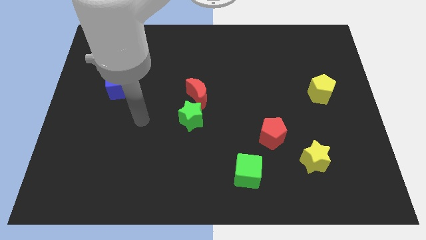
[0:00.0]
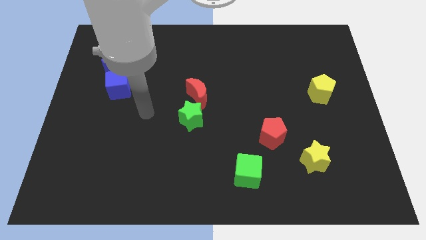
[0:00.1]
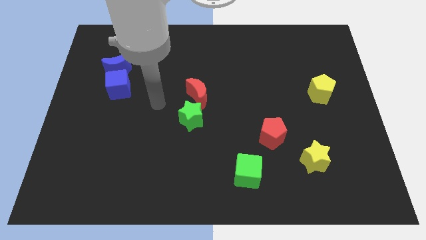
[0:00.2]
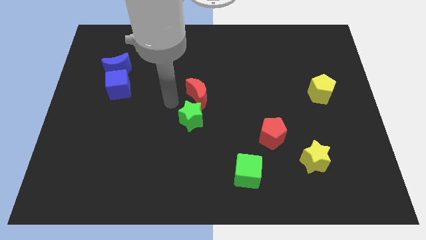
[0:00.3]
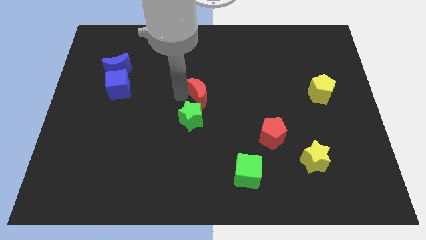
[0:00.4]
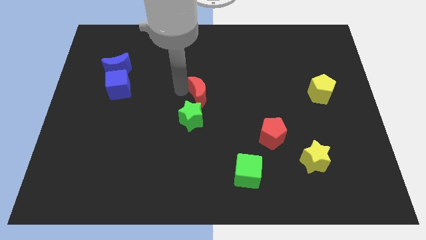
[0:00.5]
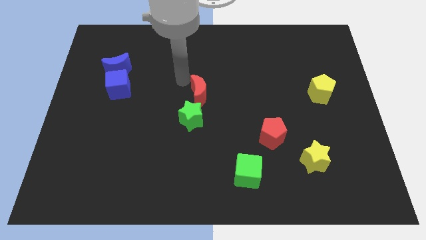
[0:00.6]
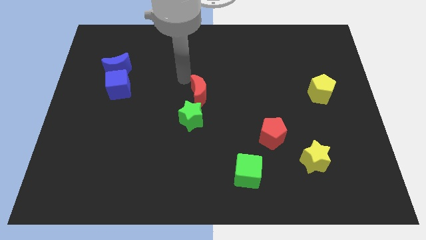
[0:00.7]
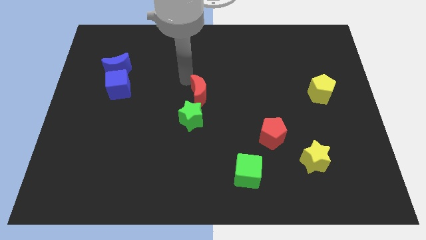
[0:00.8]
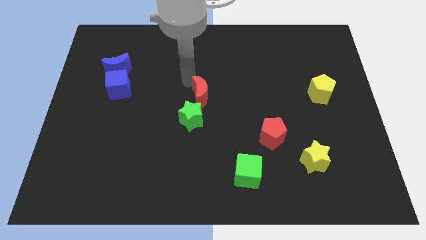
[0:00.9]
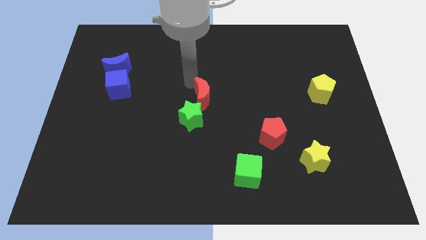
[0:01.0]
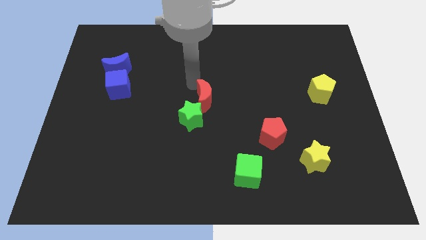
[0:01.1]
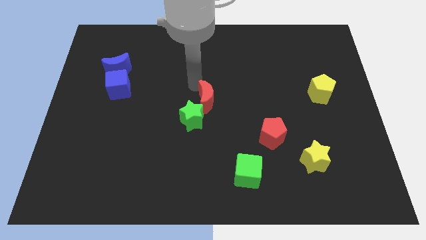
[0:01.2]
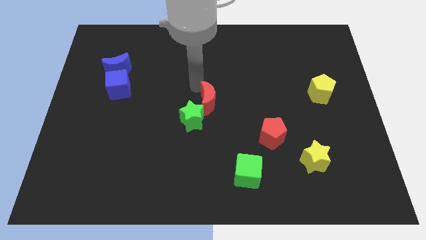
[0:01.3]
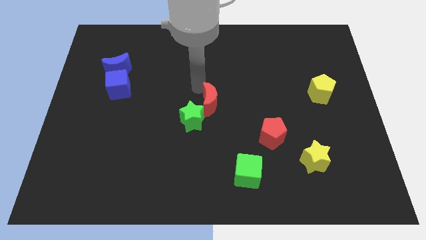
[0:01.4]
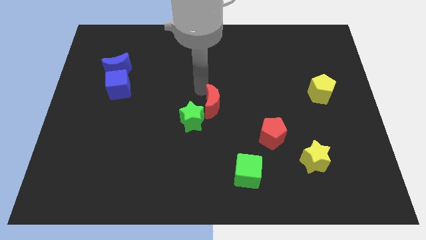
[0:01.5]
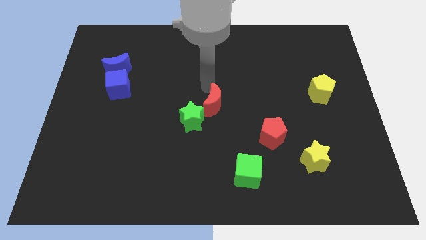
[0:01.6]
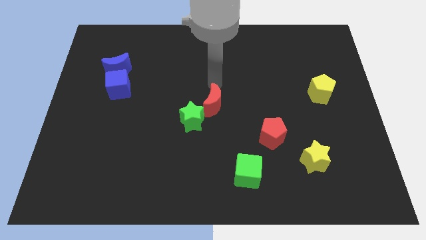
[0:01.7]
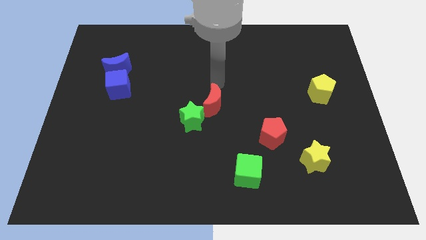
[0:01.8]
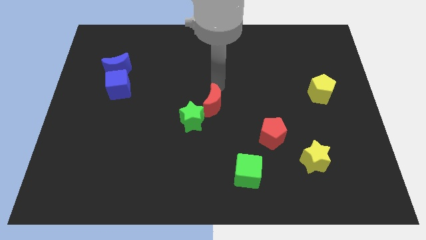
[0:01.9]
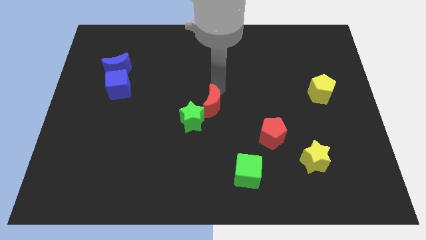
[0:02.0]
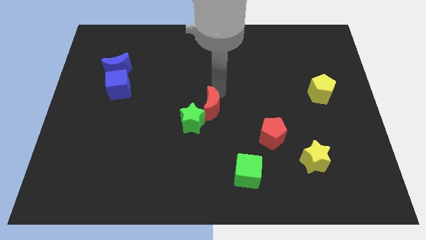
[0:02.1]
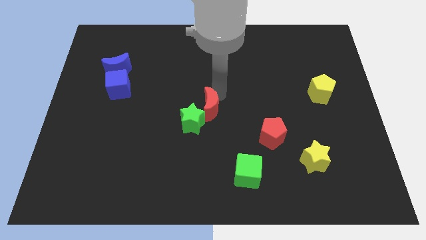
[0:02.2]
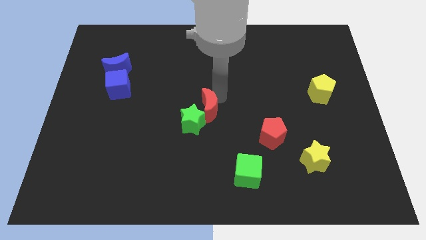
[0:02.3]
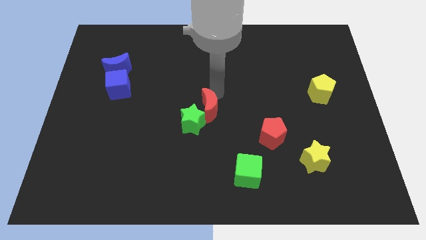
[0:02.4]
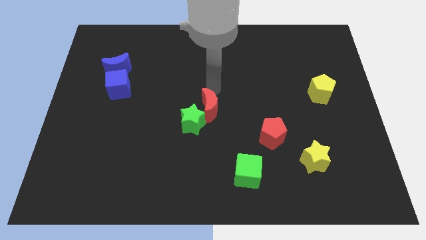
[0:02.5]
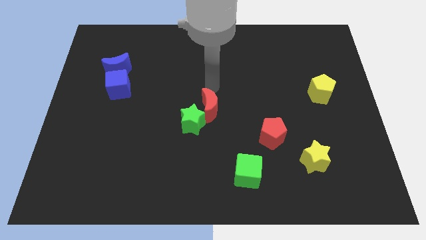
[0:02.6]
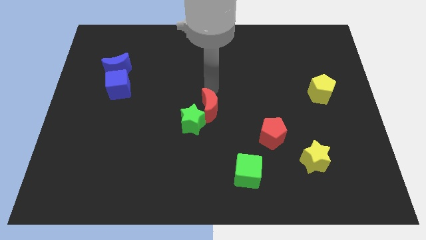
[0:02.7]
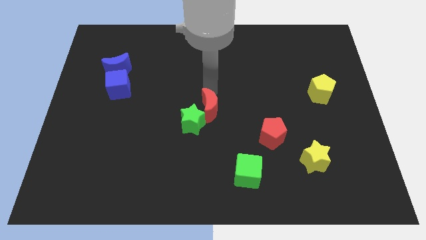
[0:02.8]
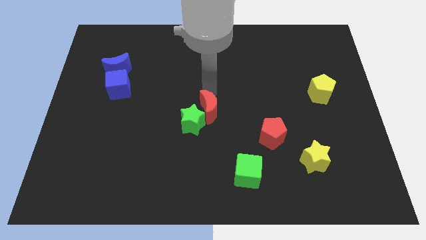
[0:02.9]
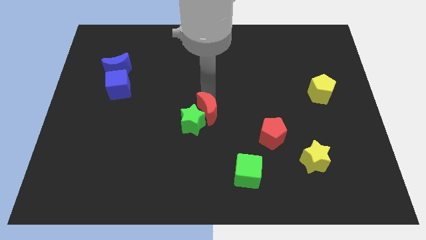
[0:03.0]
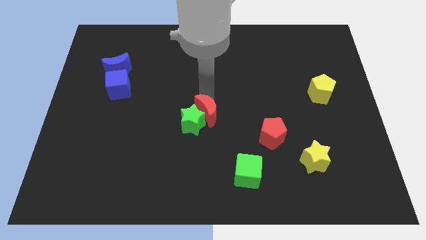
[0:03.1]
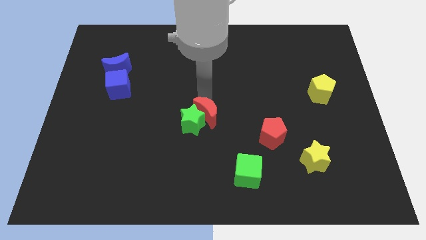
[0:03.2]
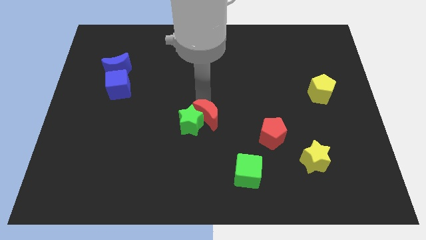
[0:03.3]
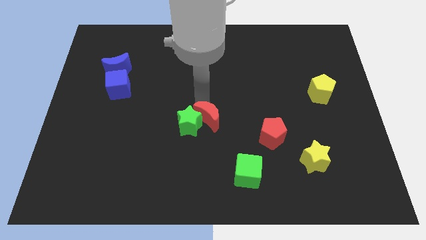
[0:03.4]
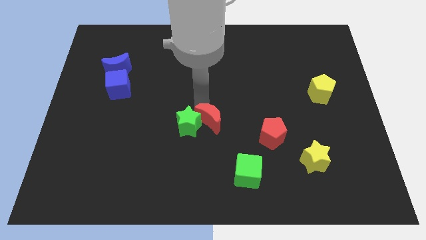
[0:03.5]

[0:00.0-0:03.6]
slightly move the red moon down

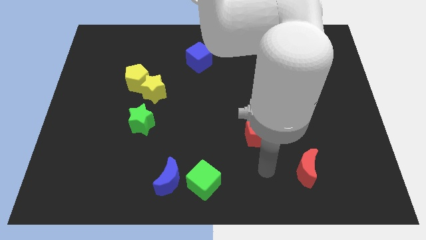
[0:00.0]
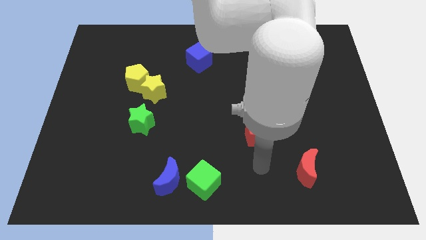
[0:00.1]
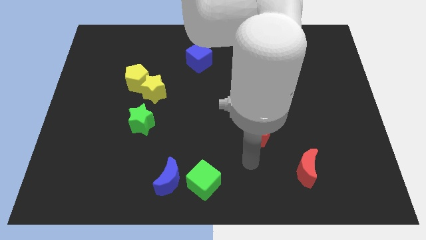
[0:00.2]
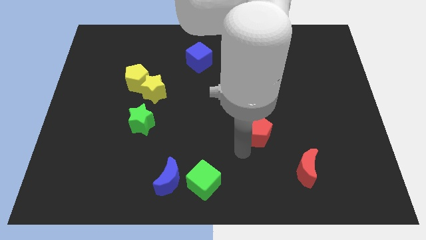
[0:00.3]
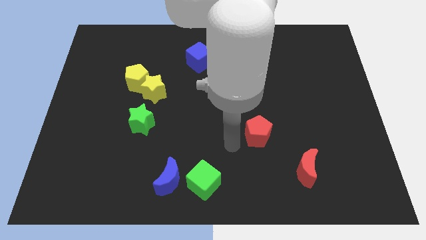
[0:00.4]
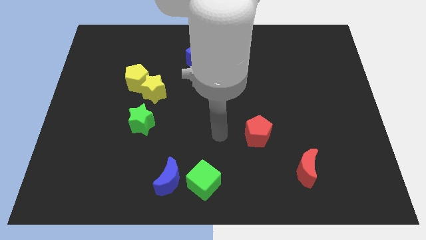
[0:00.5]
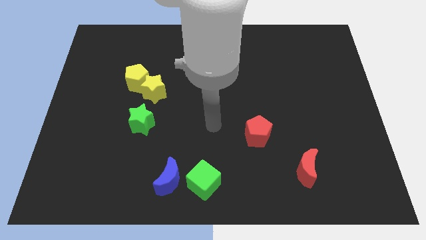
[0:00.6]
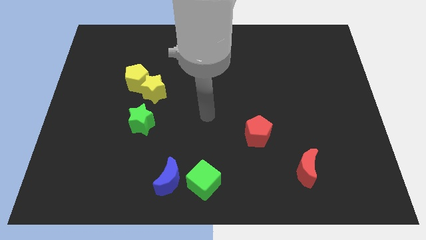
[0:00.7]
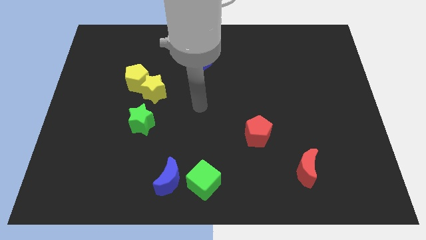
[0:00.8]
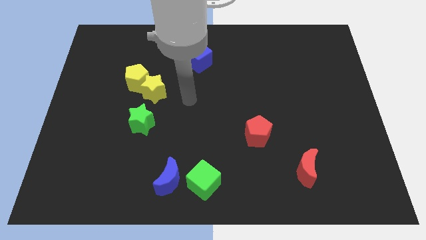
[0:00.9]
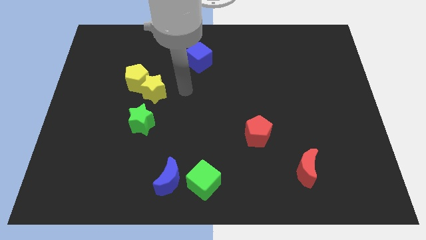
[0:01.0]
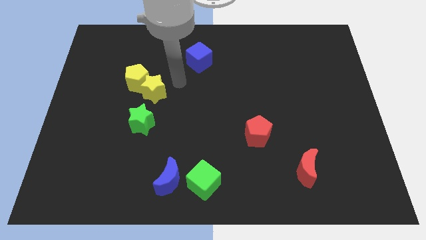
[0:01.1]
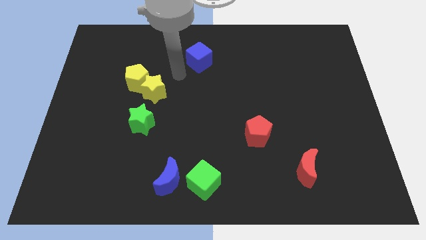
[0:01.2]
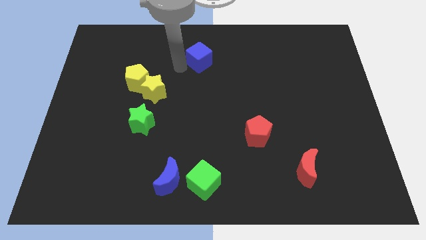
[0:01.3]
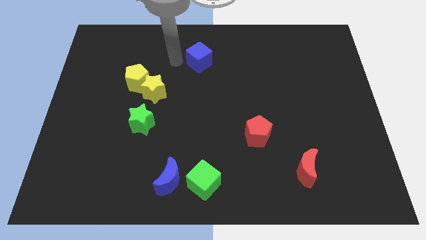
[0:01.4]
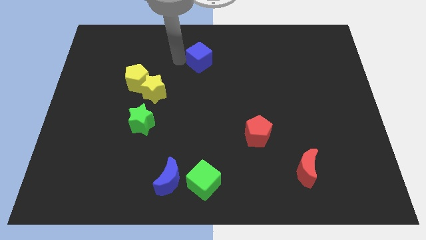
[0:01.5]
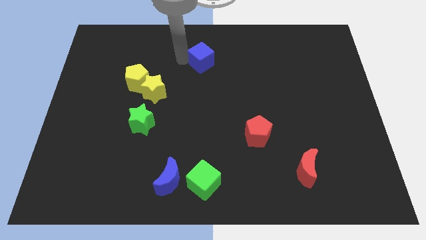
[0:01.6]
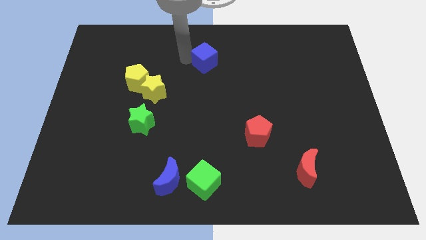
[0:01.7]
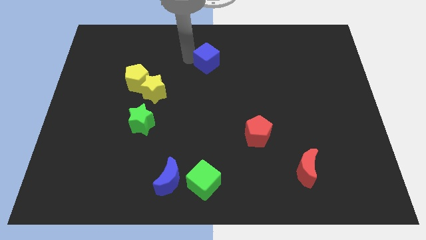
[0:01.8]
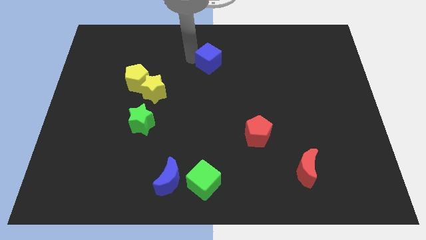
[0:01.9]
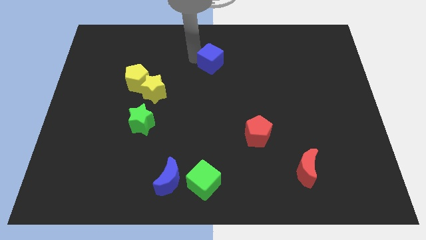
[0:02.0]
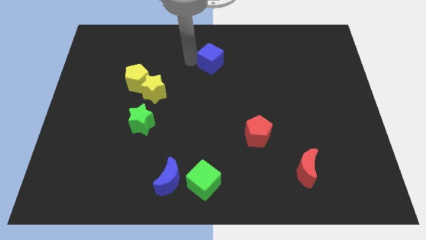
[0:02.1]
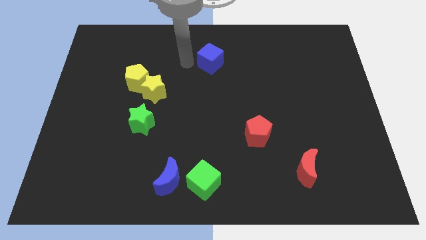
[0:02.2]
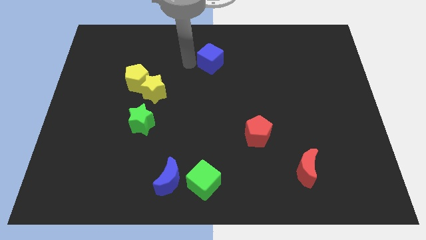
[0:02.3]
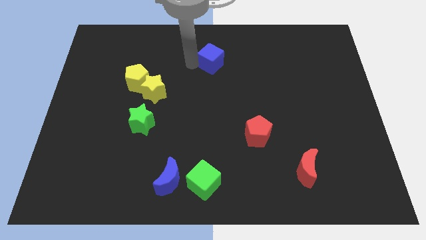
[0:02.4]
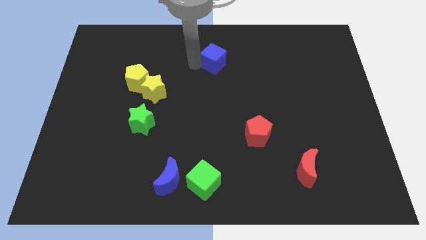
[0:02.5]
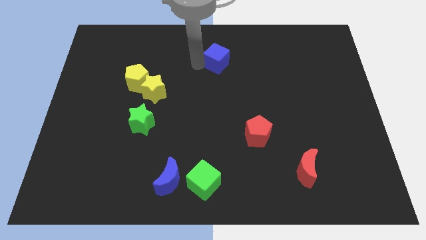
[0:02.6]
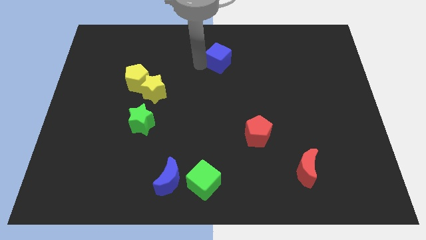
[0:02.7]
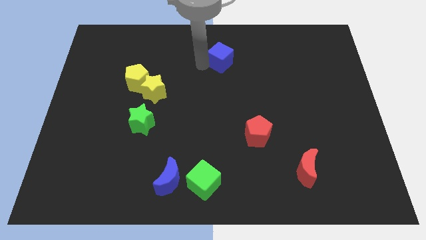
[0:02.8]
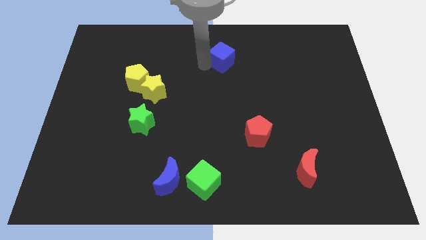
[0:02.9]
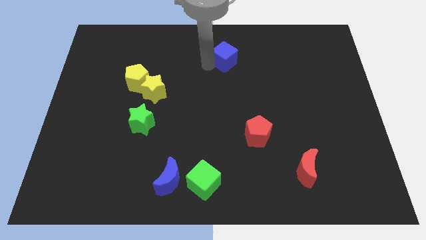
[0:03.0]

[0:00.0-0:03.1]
slide the blue cube to the right a little

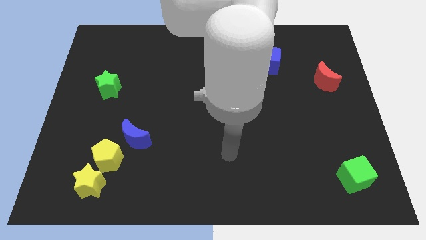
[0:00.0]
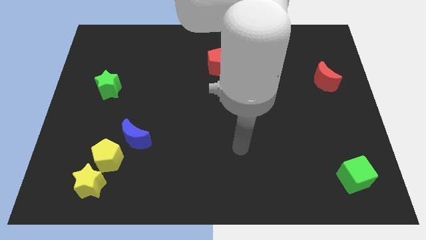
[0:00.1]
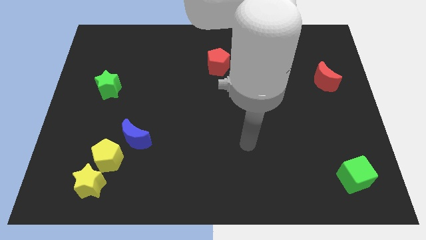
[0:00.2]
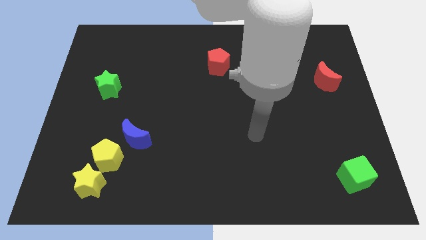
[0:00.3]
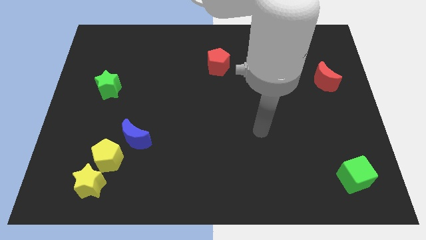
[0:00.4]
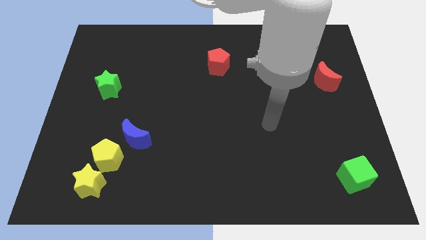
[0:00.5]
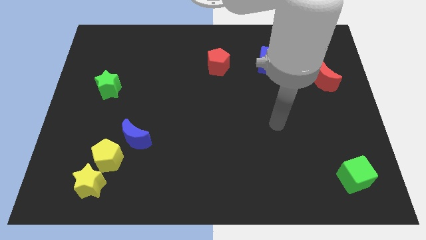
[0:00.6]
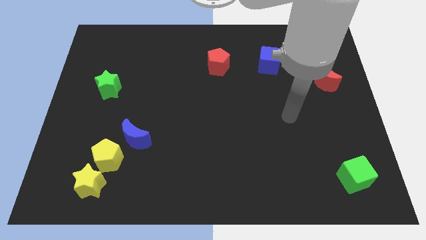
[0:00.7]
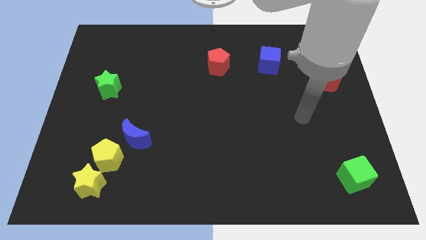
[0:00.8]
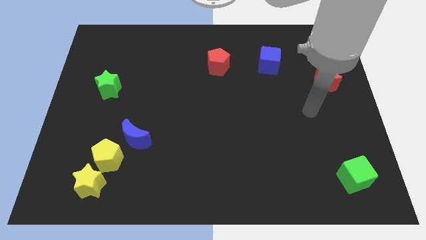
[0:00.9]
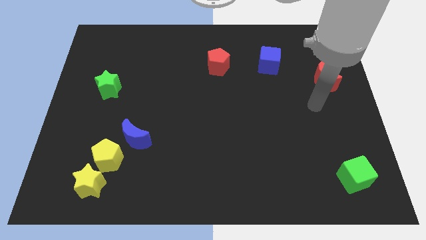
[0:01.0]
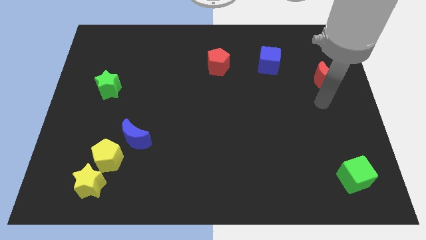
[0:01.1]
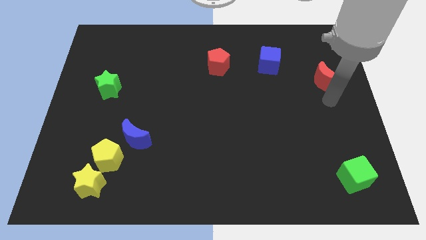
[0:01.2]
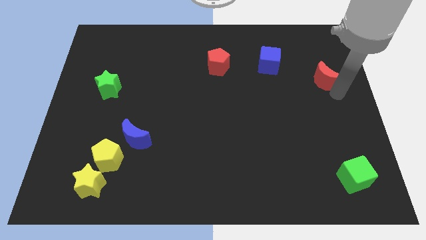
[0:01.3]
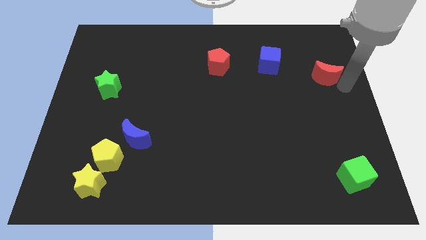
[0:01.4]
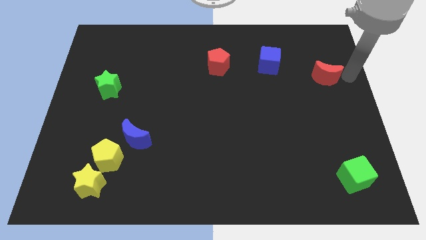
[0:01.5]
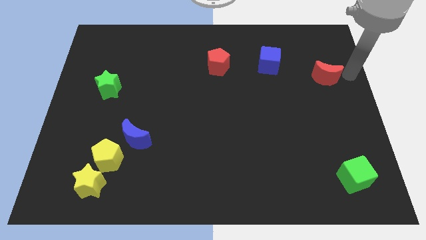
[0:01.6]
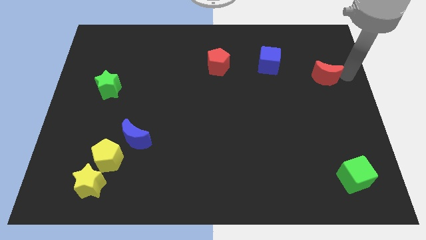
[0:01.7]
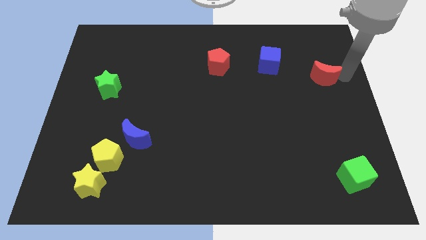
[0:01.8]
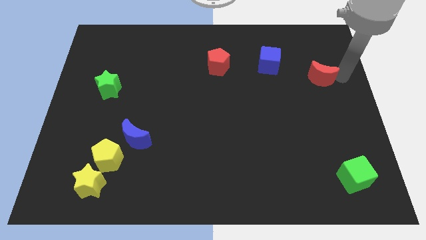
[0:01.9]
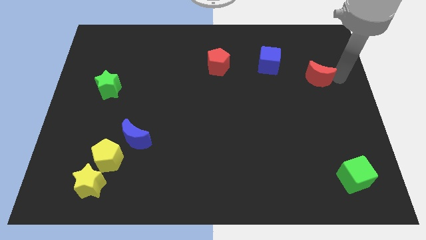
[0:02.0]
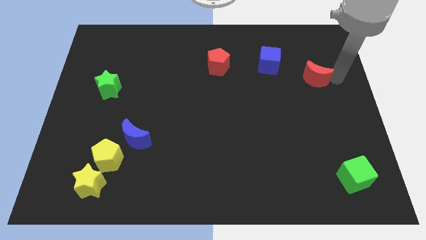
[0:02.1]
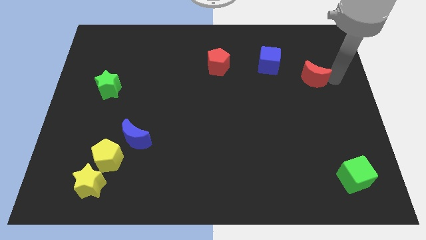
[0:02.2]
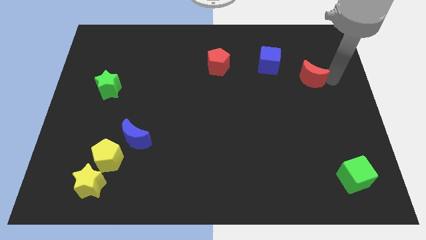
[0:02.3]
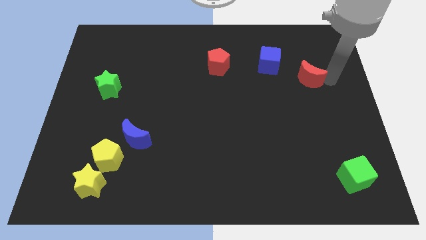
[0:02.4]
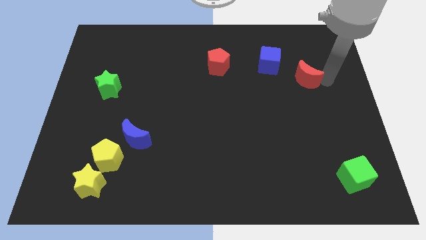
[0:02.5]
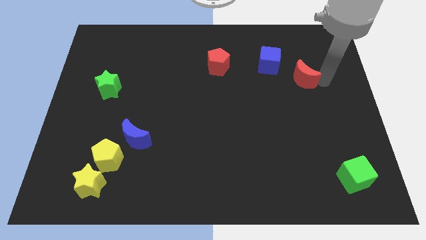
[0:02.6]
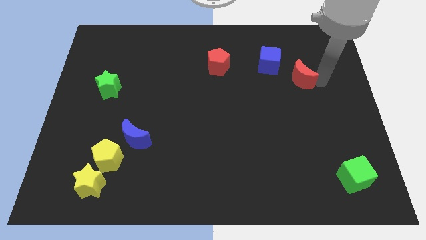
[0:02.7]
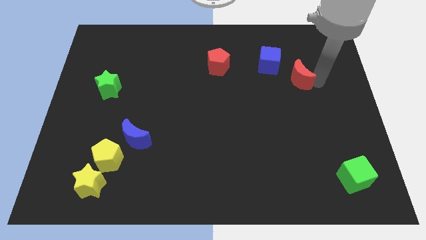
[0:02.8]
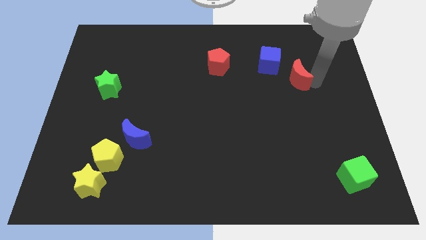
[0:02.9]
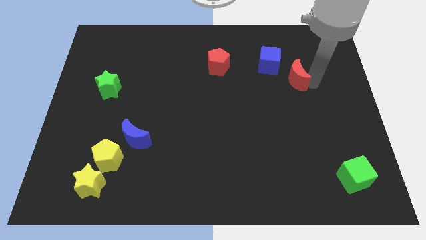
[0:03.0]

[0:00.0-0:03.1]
push the red moon left a little bit
